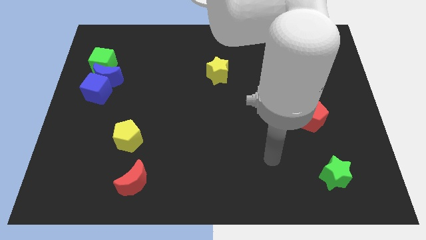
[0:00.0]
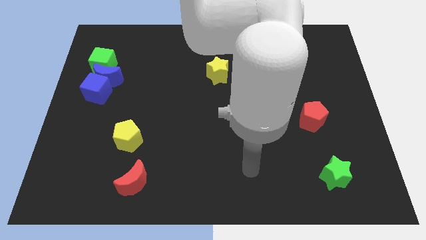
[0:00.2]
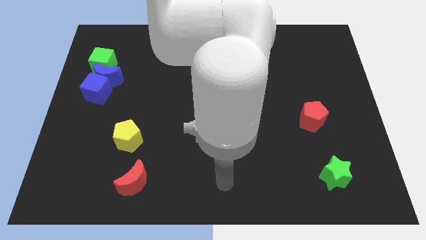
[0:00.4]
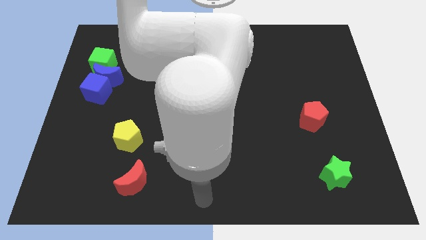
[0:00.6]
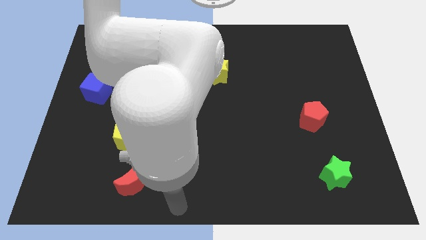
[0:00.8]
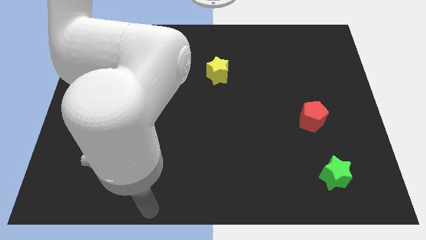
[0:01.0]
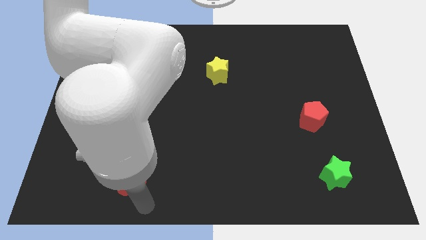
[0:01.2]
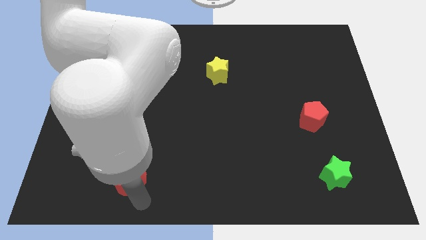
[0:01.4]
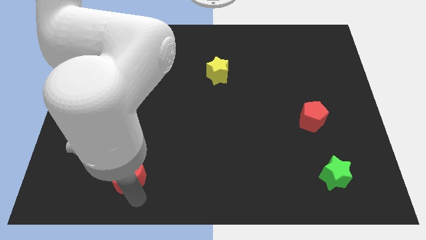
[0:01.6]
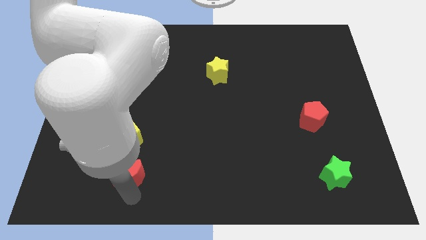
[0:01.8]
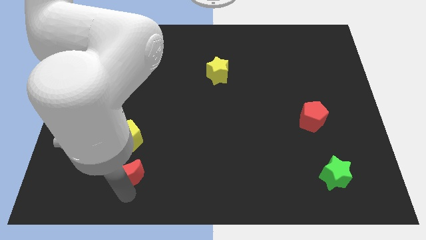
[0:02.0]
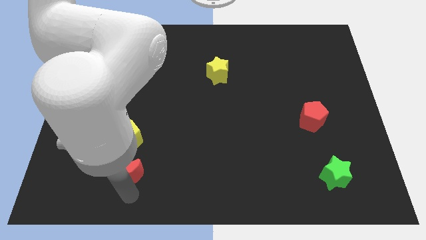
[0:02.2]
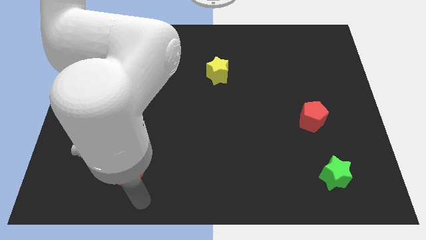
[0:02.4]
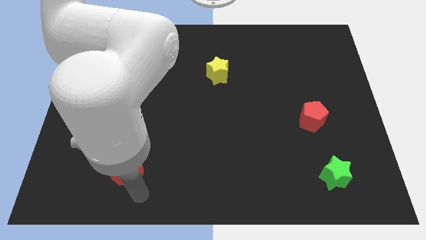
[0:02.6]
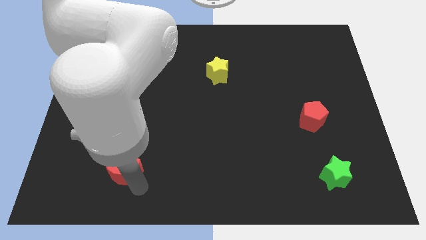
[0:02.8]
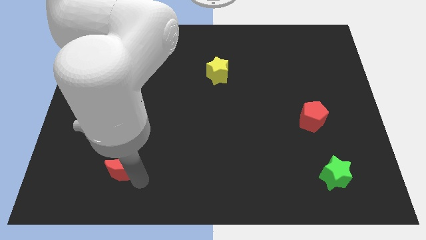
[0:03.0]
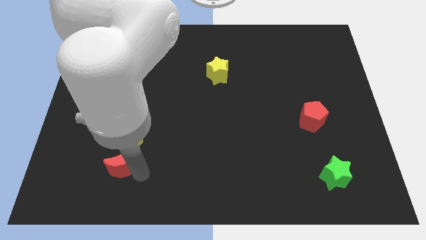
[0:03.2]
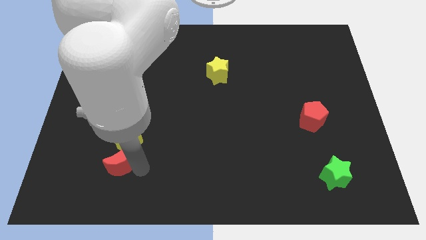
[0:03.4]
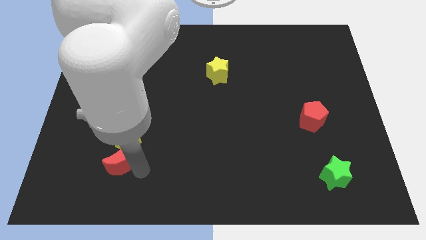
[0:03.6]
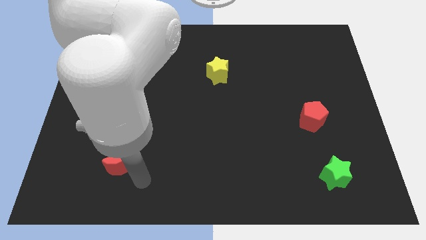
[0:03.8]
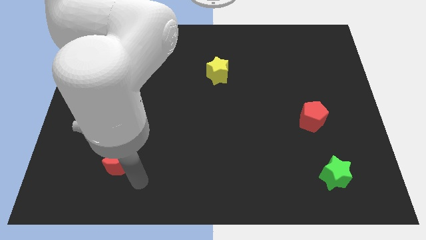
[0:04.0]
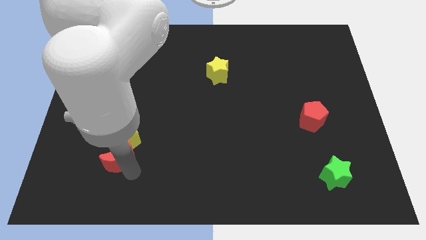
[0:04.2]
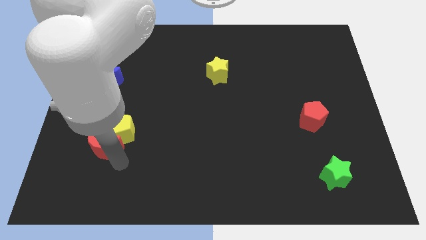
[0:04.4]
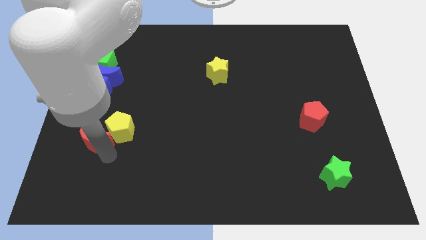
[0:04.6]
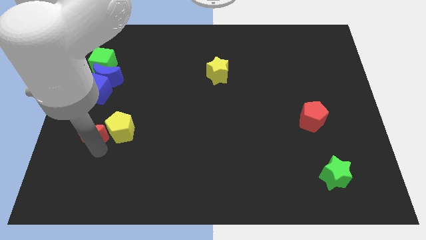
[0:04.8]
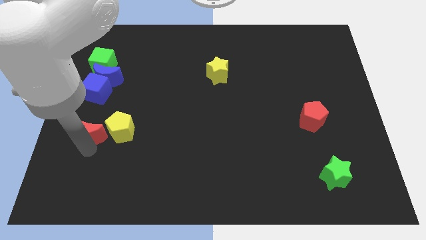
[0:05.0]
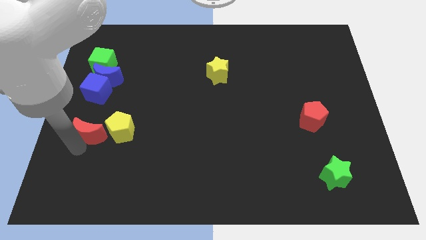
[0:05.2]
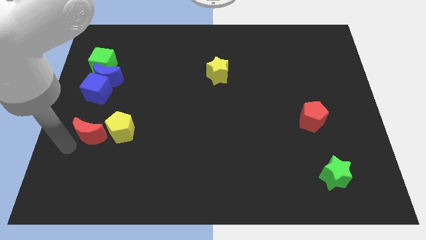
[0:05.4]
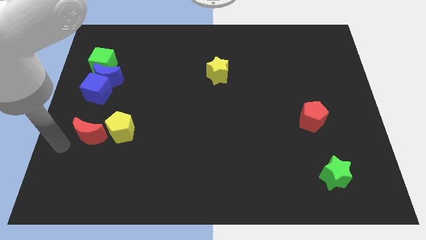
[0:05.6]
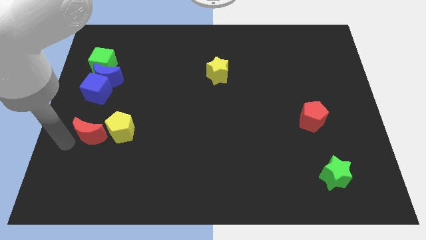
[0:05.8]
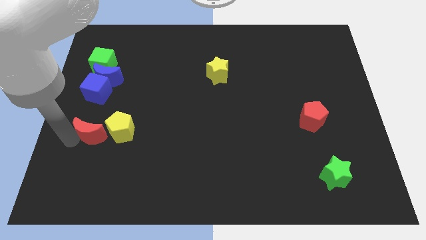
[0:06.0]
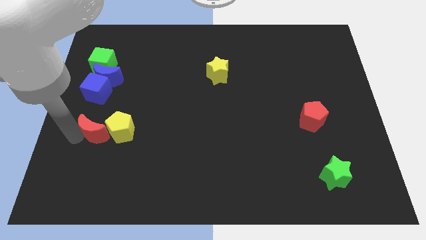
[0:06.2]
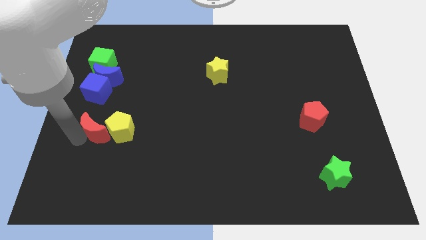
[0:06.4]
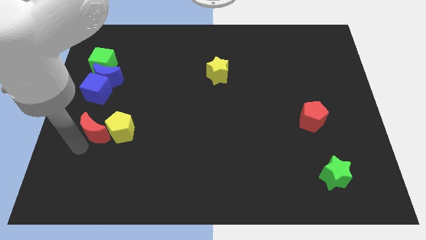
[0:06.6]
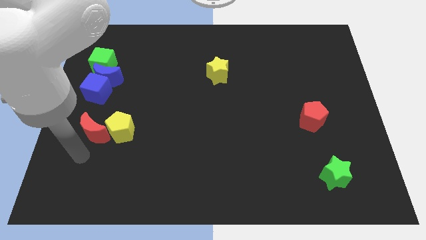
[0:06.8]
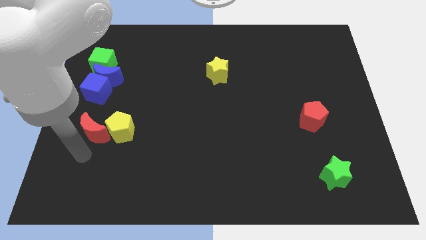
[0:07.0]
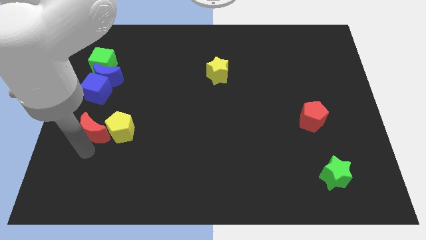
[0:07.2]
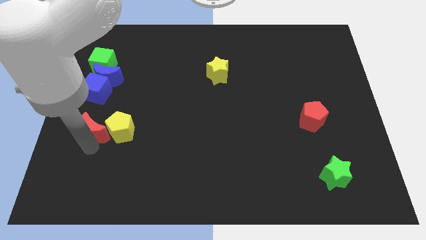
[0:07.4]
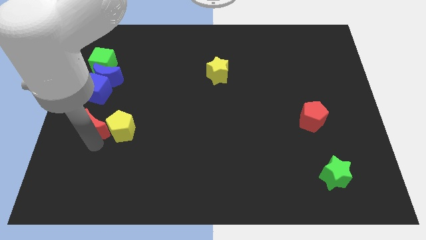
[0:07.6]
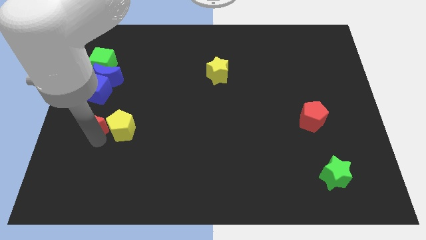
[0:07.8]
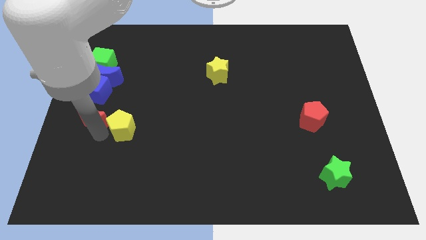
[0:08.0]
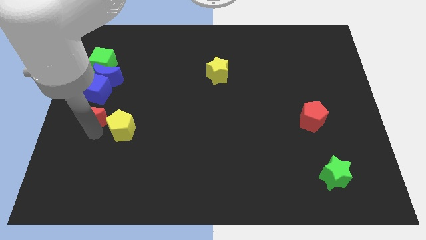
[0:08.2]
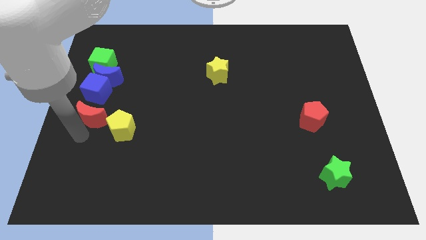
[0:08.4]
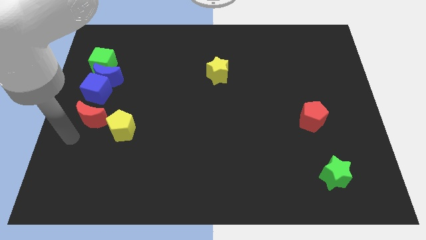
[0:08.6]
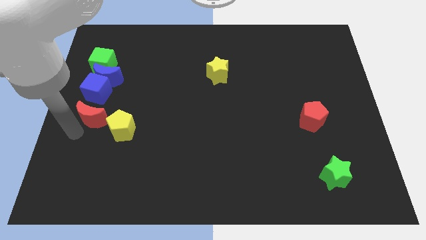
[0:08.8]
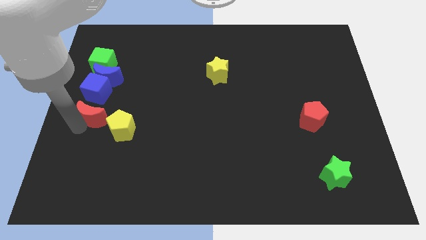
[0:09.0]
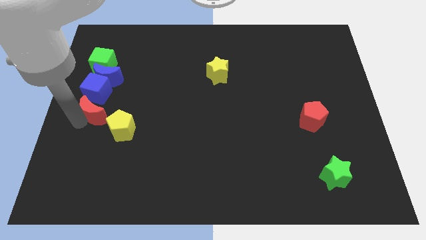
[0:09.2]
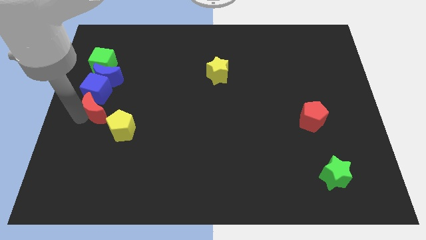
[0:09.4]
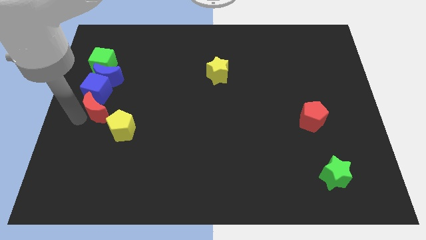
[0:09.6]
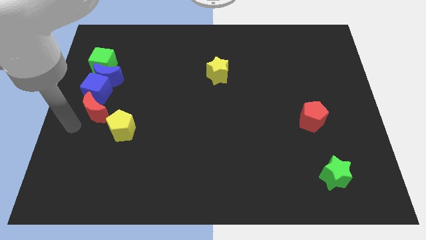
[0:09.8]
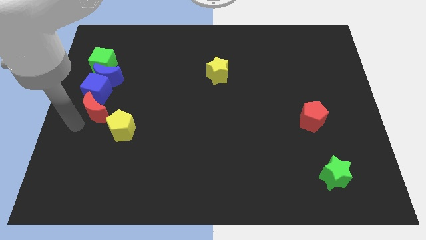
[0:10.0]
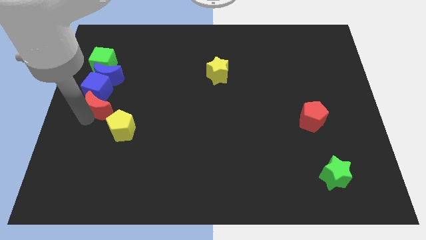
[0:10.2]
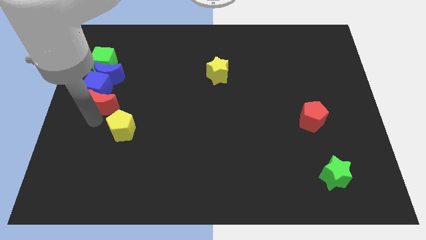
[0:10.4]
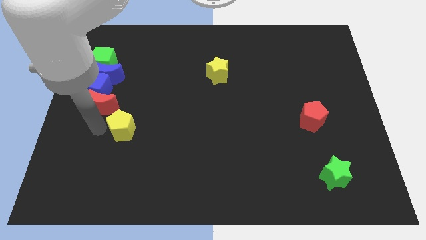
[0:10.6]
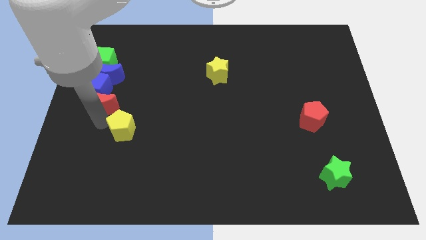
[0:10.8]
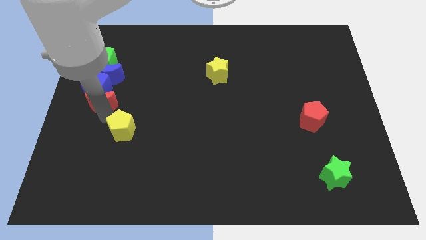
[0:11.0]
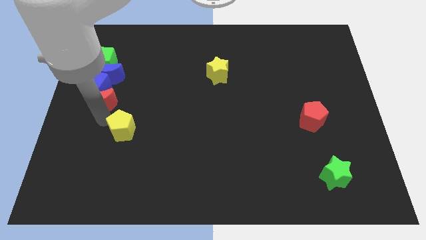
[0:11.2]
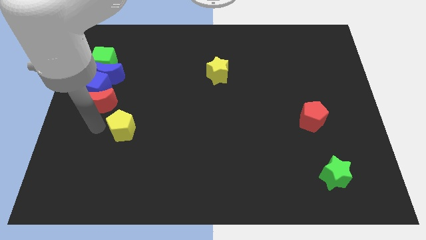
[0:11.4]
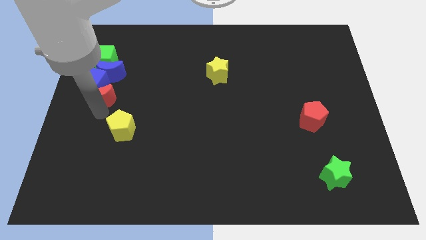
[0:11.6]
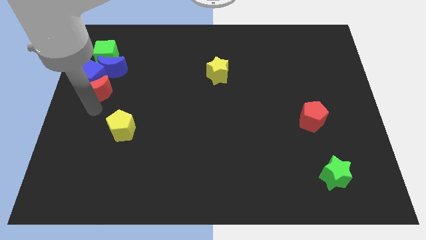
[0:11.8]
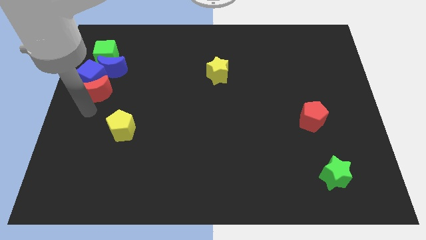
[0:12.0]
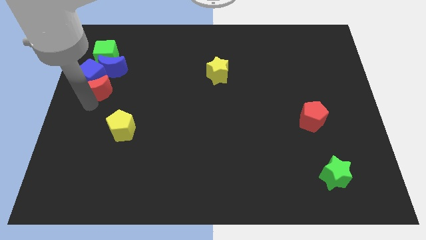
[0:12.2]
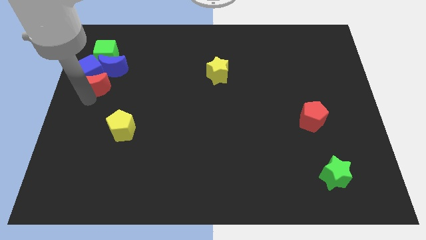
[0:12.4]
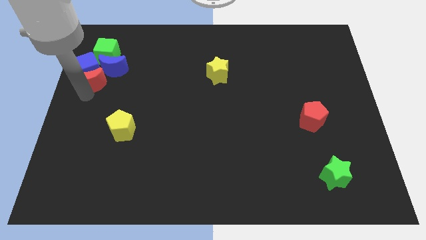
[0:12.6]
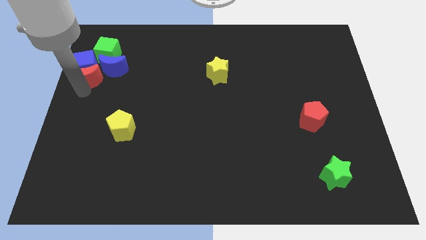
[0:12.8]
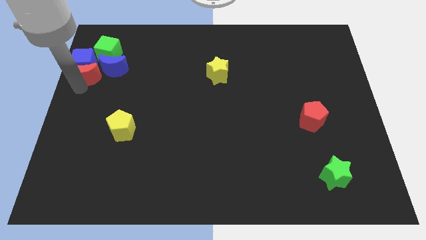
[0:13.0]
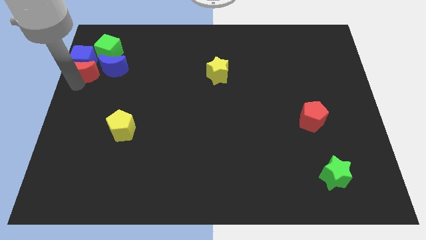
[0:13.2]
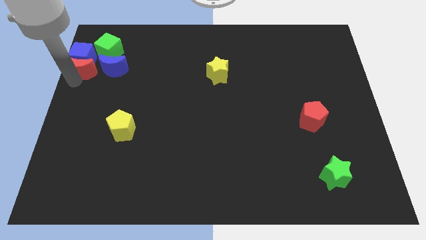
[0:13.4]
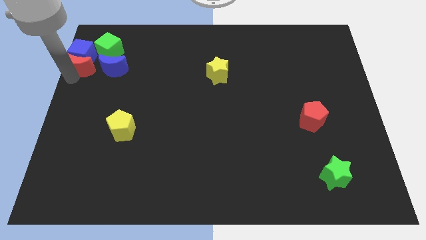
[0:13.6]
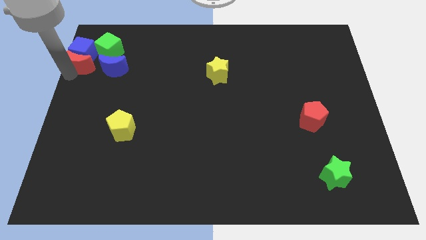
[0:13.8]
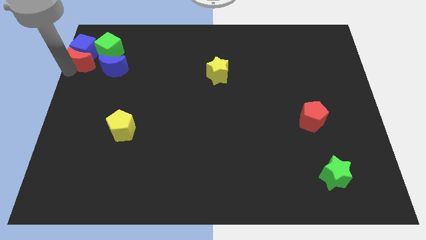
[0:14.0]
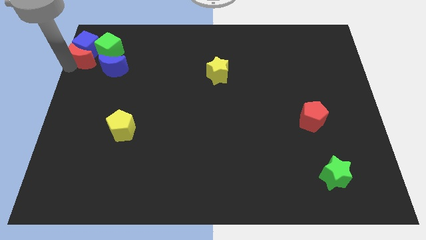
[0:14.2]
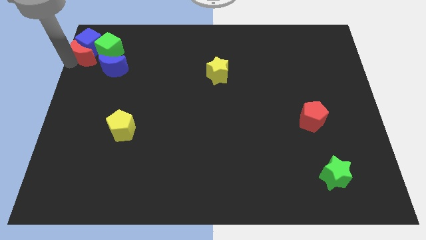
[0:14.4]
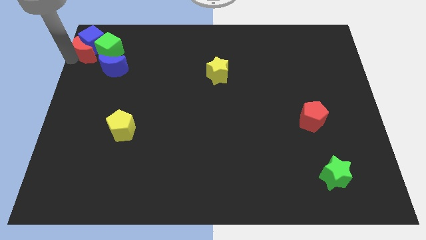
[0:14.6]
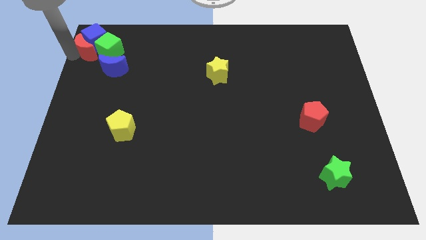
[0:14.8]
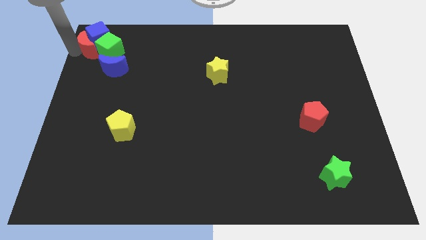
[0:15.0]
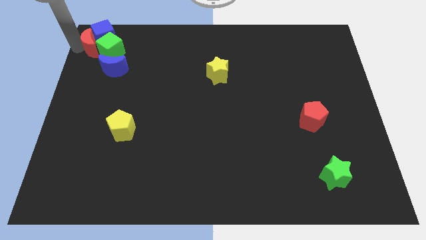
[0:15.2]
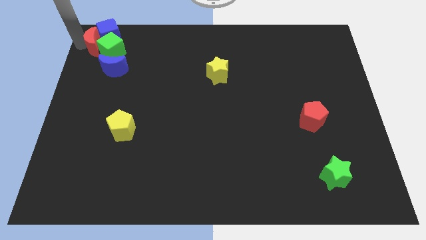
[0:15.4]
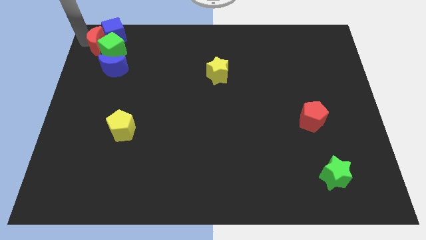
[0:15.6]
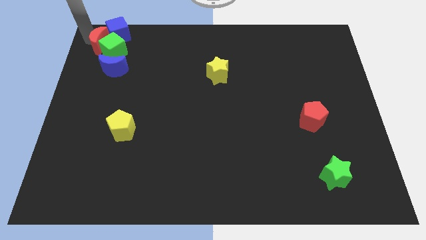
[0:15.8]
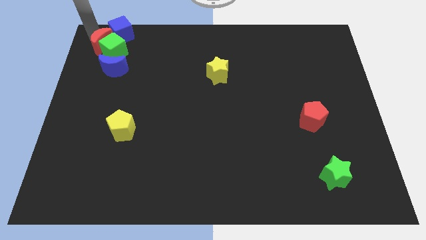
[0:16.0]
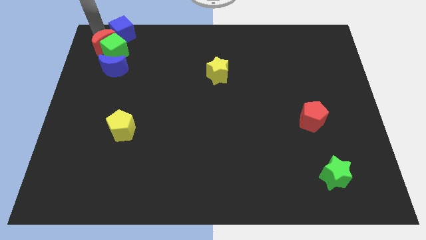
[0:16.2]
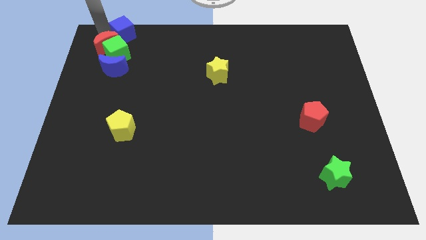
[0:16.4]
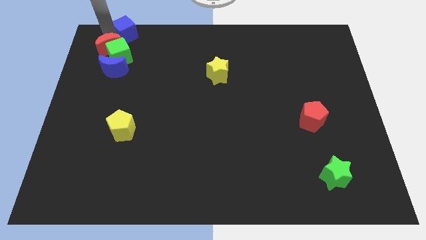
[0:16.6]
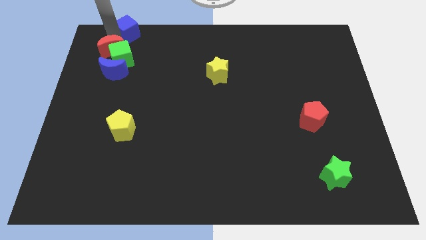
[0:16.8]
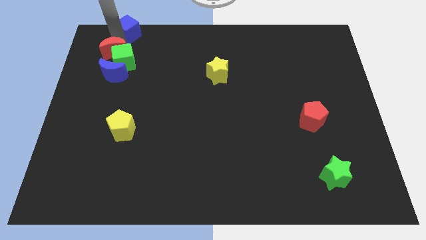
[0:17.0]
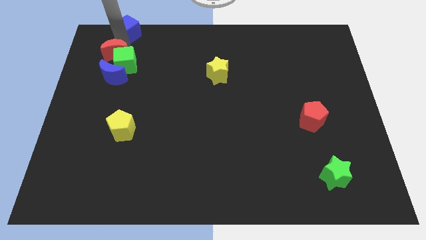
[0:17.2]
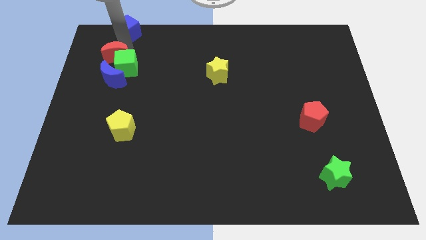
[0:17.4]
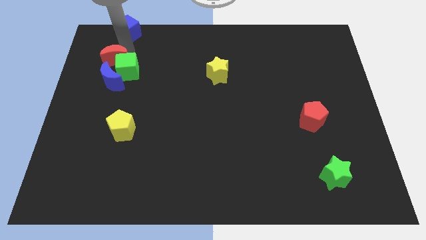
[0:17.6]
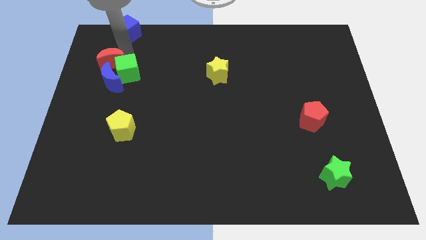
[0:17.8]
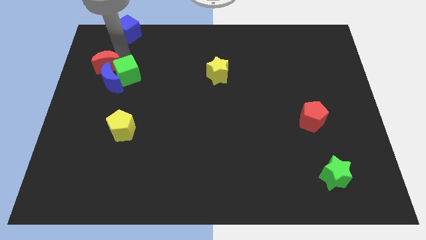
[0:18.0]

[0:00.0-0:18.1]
push the red moon towards the blue moon
